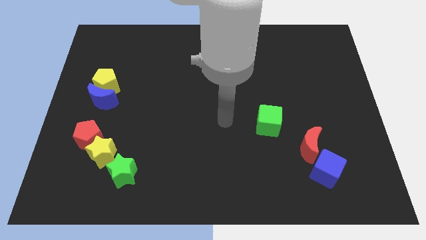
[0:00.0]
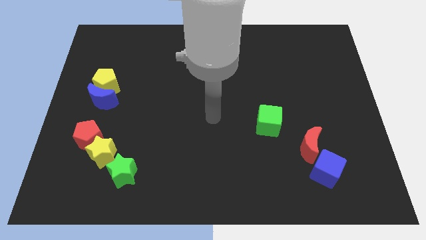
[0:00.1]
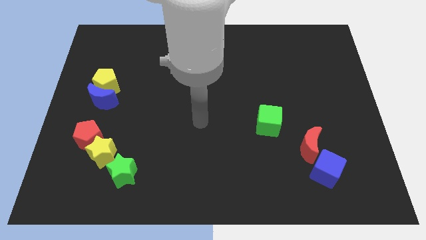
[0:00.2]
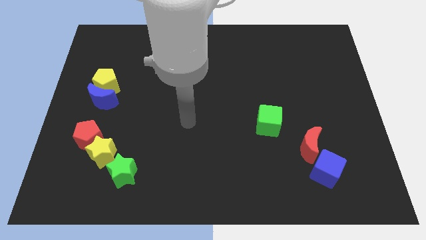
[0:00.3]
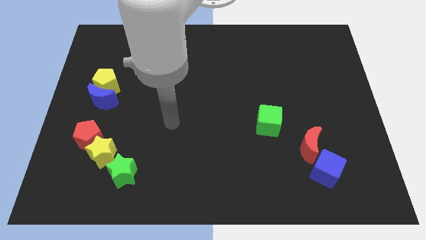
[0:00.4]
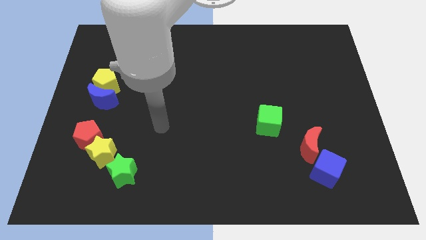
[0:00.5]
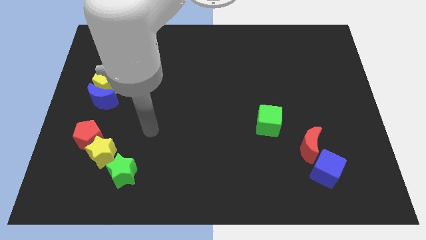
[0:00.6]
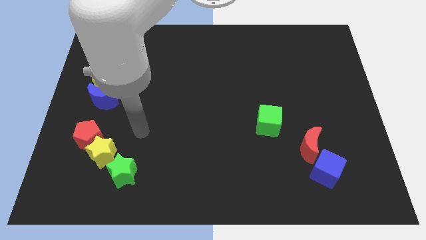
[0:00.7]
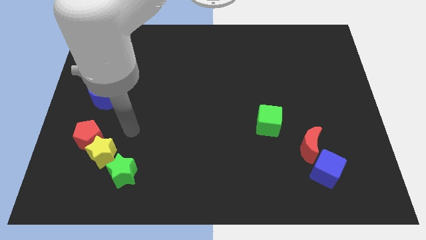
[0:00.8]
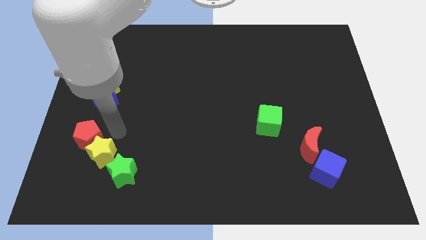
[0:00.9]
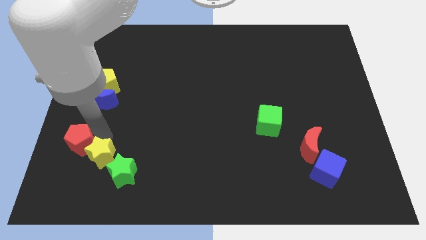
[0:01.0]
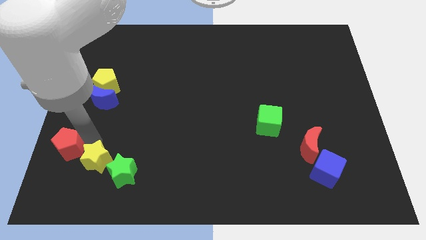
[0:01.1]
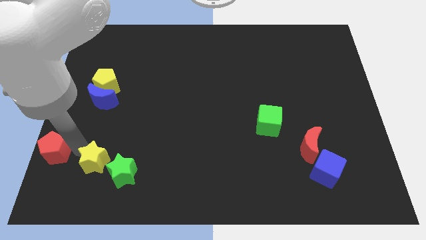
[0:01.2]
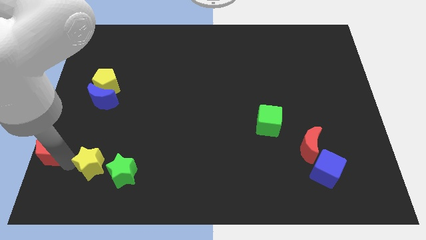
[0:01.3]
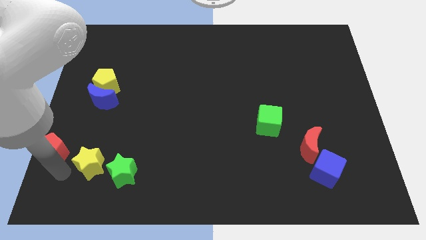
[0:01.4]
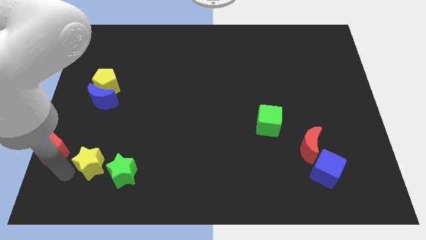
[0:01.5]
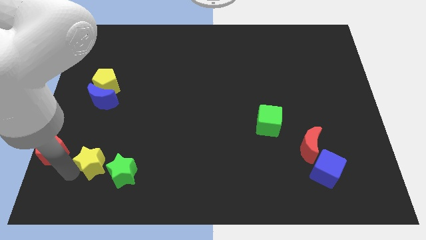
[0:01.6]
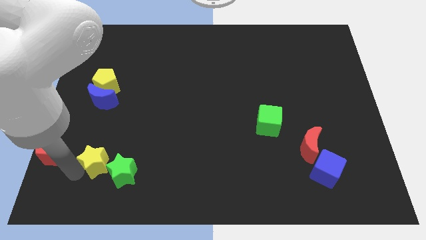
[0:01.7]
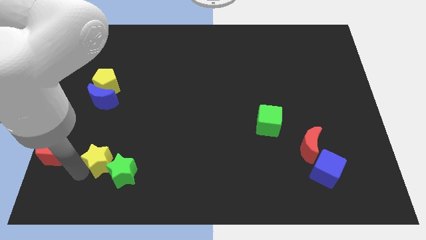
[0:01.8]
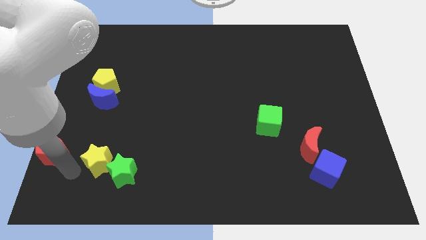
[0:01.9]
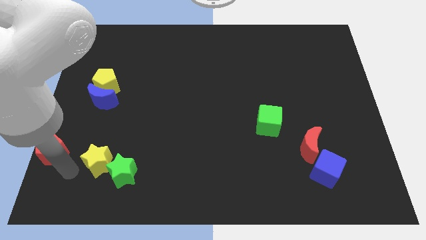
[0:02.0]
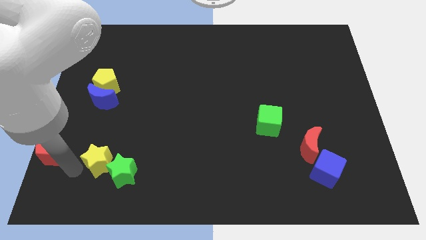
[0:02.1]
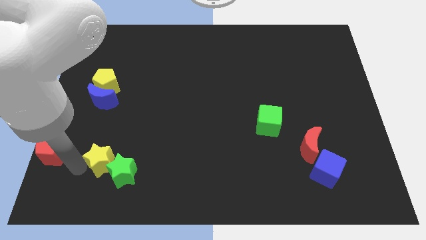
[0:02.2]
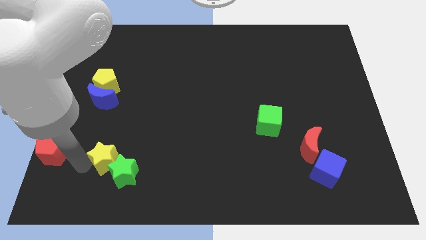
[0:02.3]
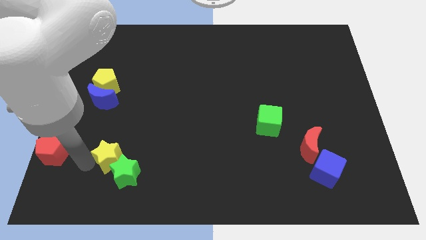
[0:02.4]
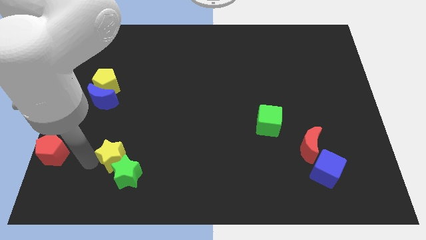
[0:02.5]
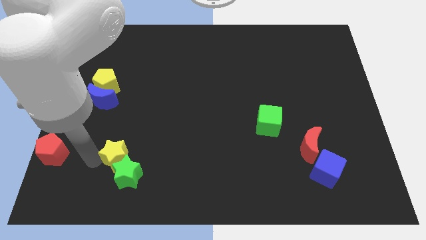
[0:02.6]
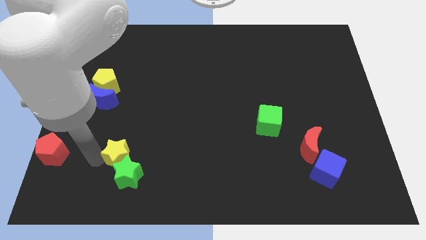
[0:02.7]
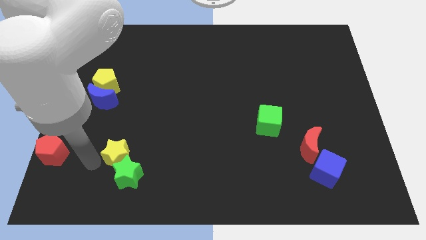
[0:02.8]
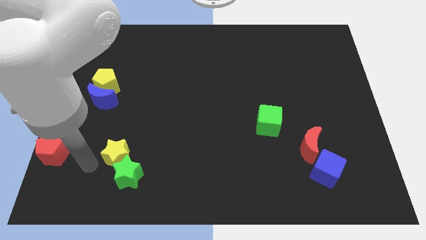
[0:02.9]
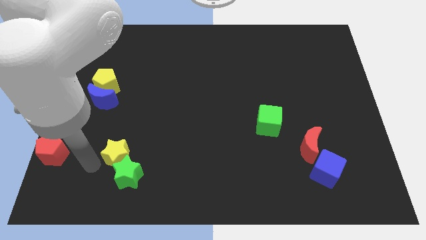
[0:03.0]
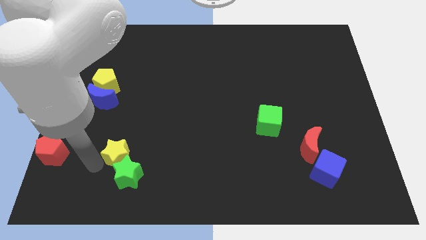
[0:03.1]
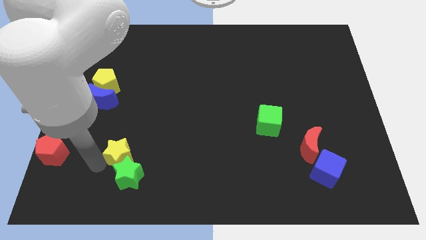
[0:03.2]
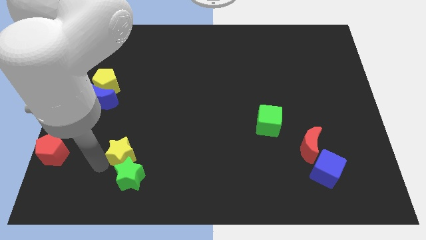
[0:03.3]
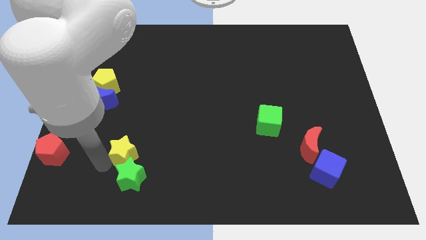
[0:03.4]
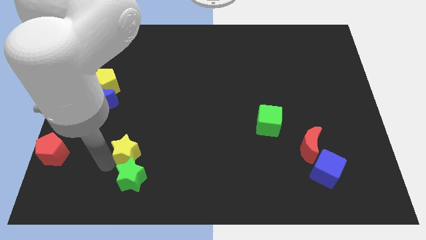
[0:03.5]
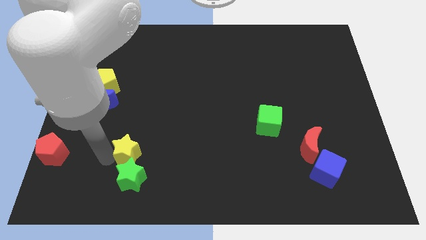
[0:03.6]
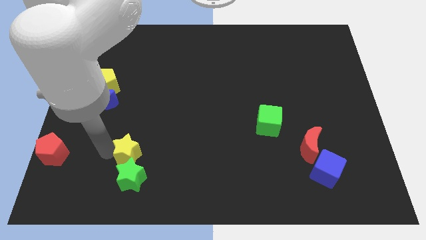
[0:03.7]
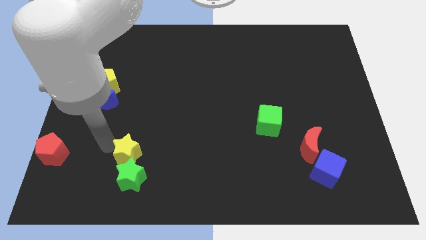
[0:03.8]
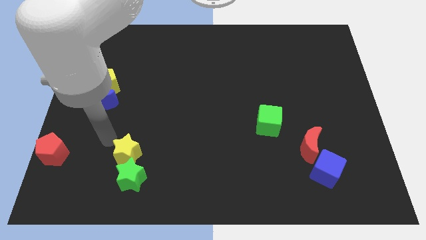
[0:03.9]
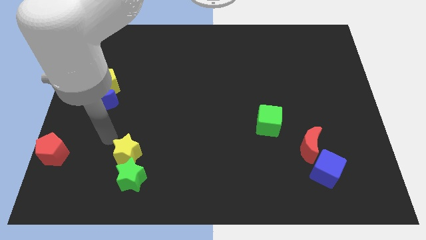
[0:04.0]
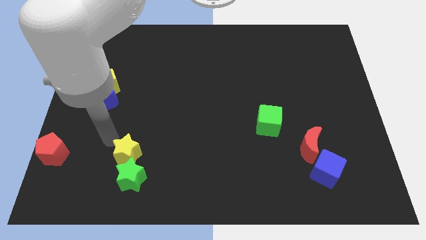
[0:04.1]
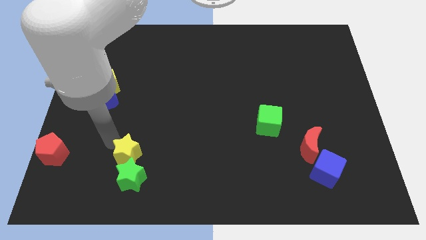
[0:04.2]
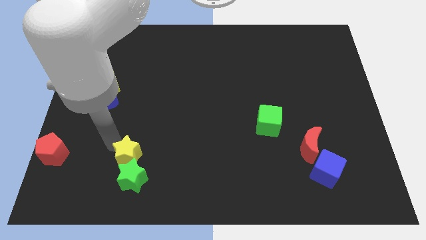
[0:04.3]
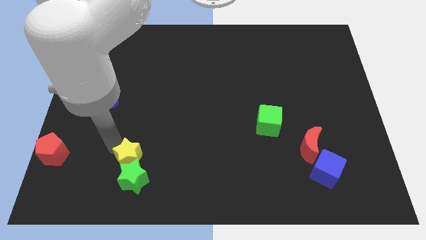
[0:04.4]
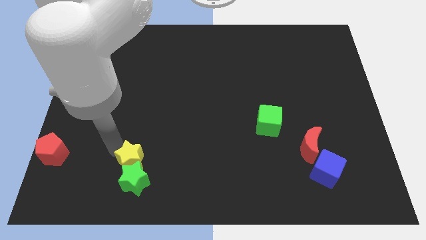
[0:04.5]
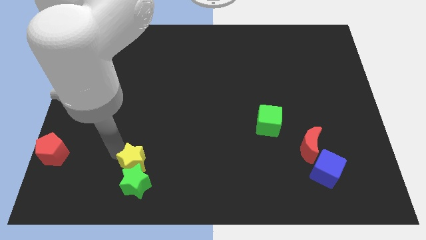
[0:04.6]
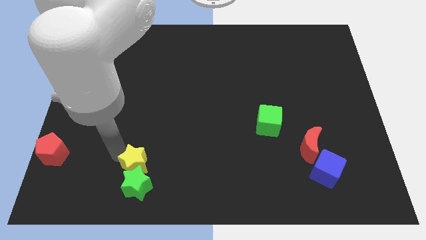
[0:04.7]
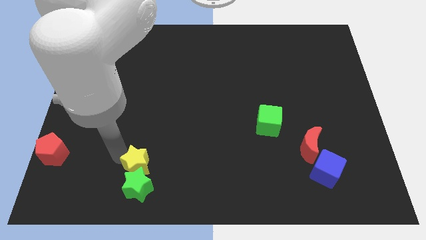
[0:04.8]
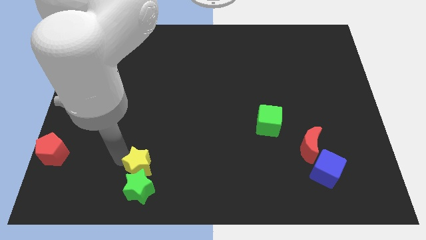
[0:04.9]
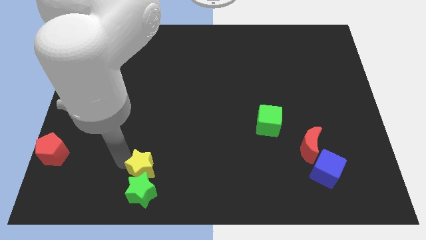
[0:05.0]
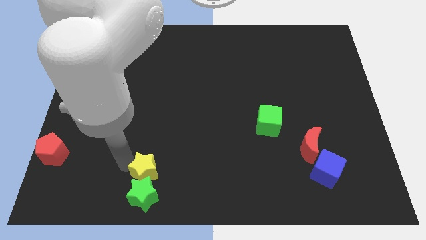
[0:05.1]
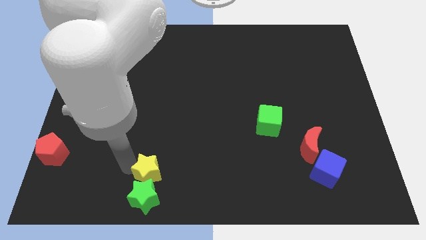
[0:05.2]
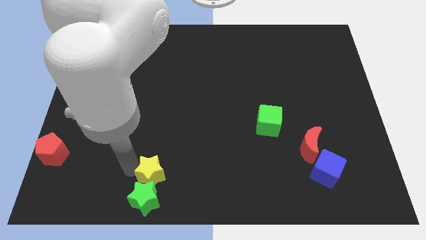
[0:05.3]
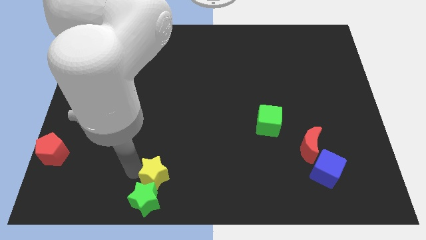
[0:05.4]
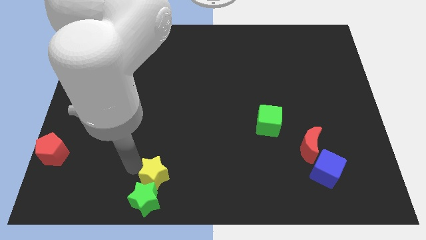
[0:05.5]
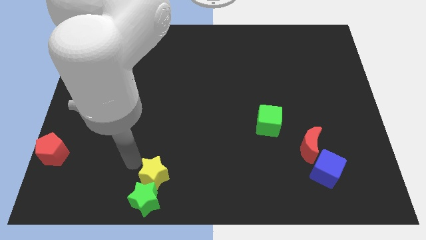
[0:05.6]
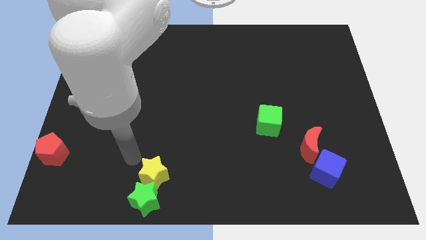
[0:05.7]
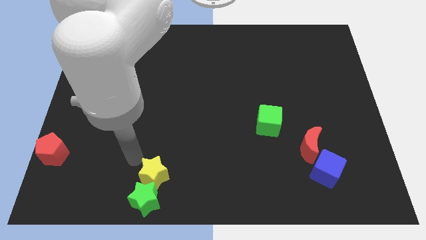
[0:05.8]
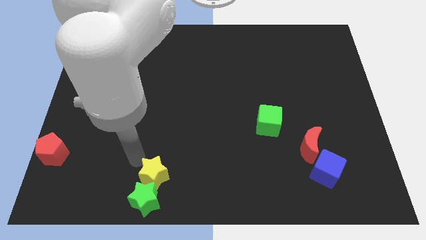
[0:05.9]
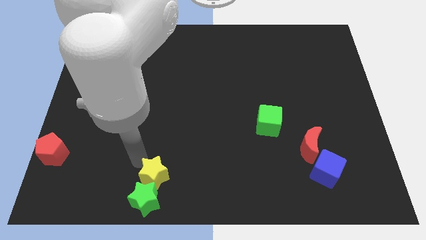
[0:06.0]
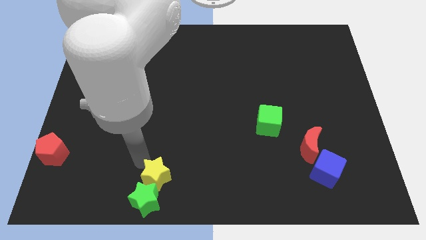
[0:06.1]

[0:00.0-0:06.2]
put the yellow star to the bottom side

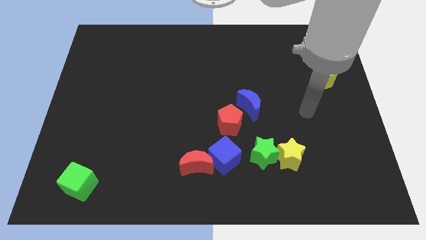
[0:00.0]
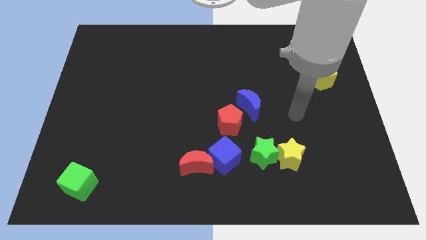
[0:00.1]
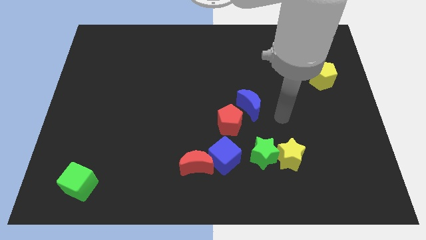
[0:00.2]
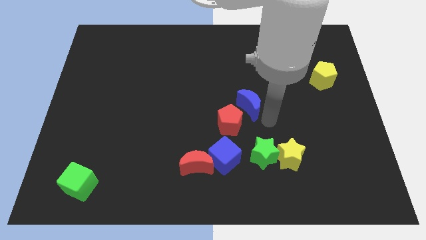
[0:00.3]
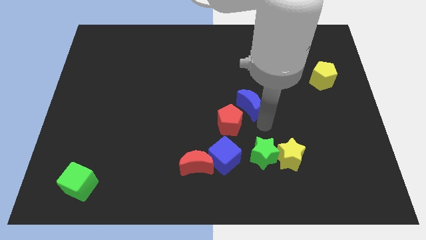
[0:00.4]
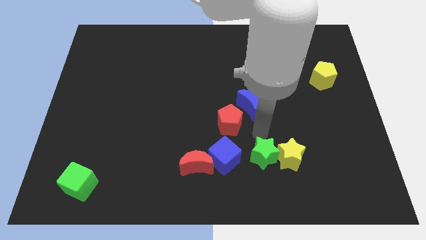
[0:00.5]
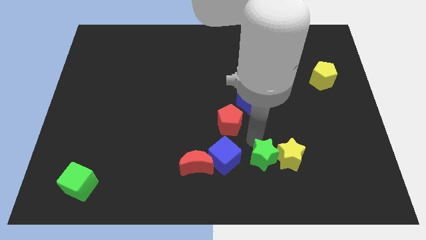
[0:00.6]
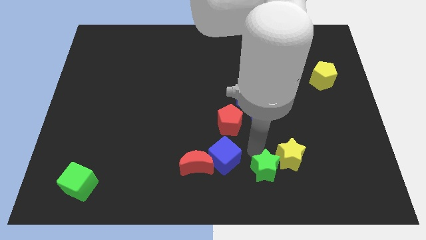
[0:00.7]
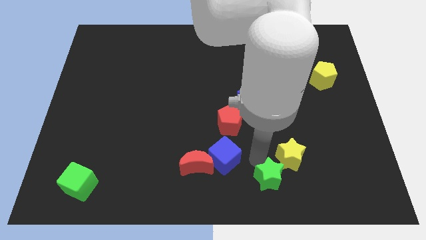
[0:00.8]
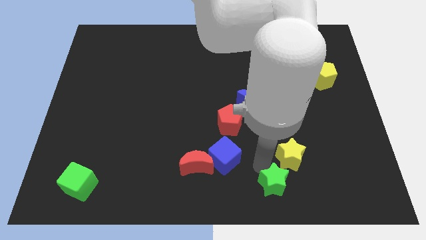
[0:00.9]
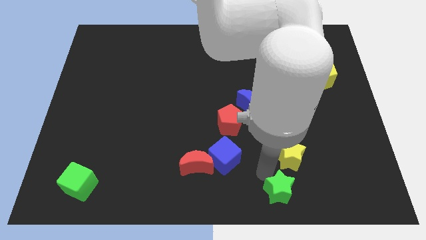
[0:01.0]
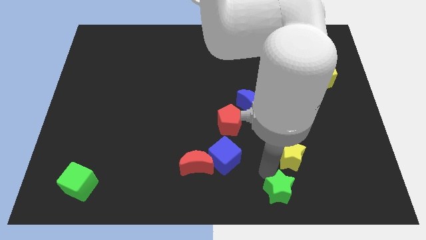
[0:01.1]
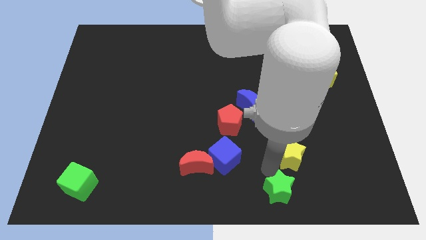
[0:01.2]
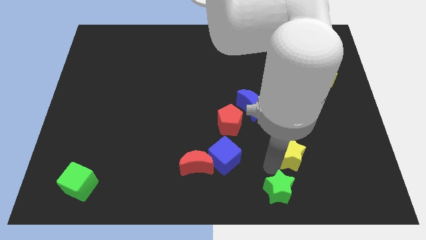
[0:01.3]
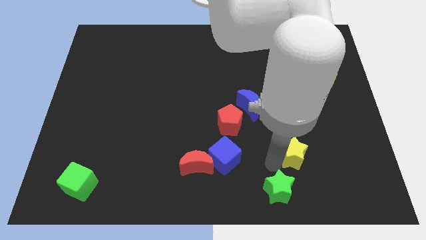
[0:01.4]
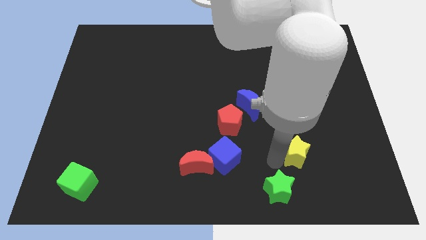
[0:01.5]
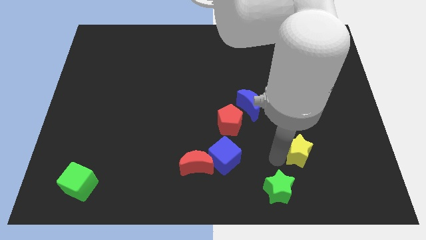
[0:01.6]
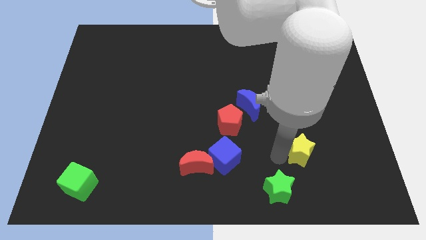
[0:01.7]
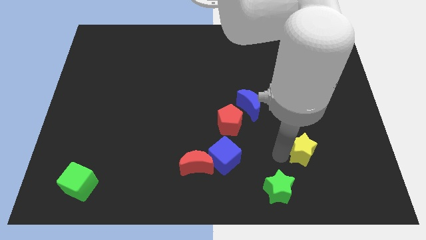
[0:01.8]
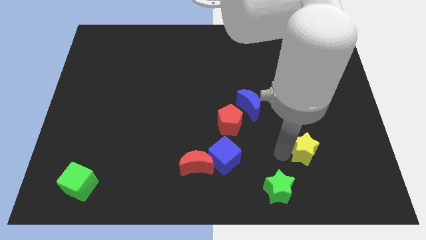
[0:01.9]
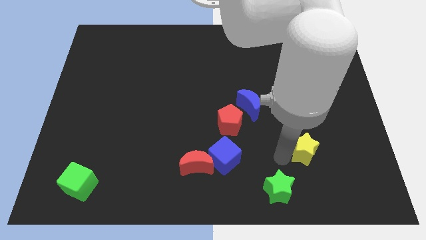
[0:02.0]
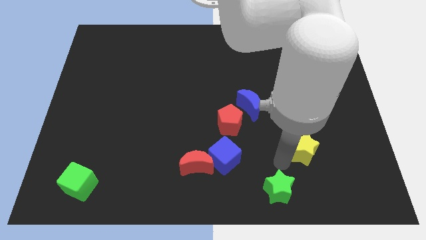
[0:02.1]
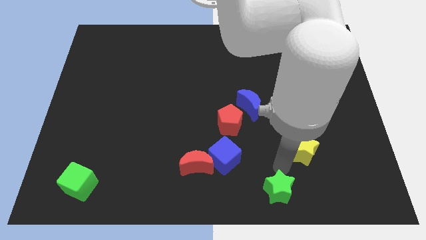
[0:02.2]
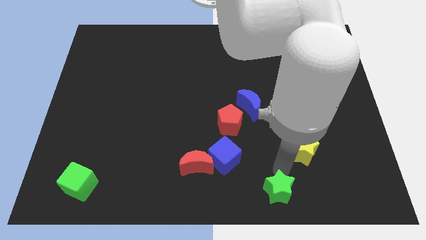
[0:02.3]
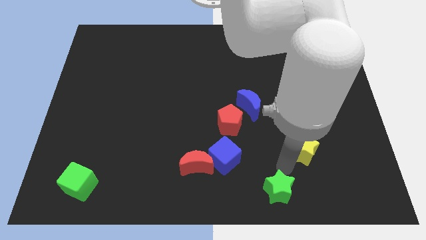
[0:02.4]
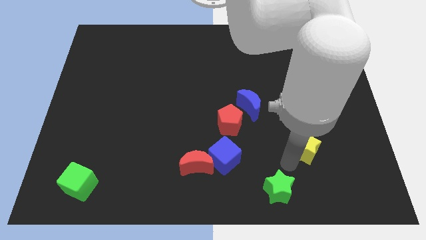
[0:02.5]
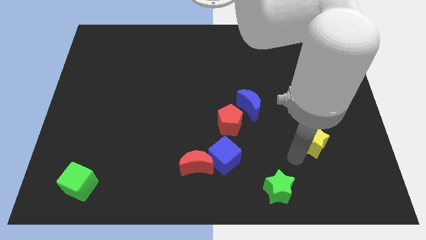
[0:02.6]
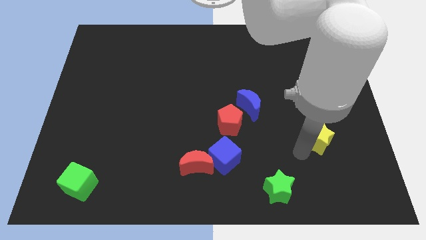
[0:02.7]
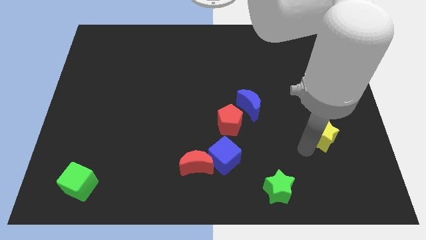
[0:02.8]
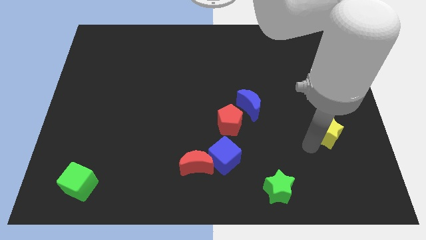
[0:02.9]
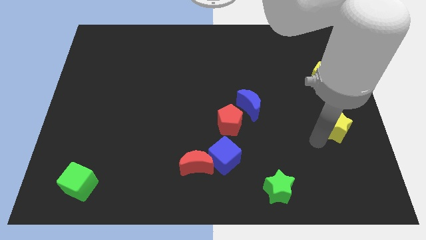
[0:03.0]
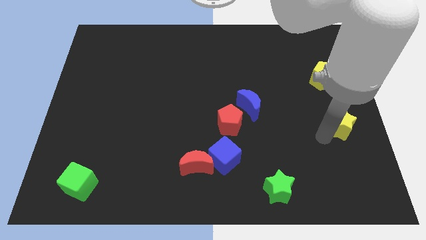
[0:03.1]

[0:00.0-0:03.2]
slide the yellow star to the right side
